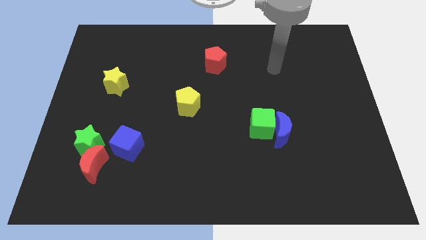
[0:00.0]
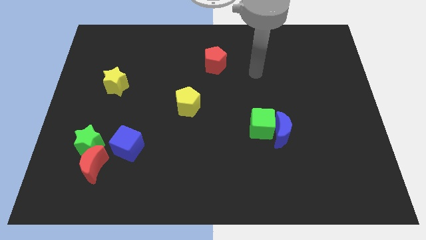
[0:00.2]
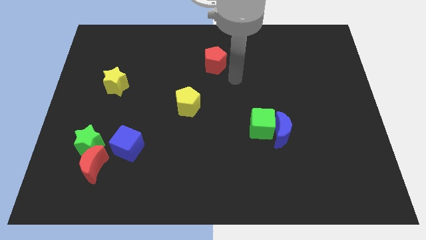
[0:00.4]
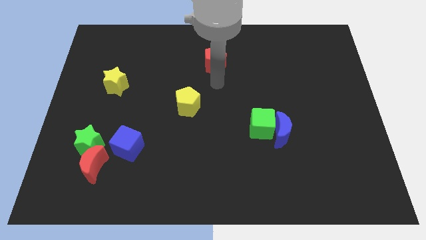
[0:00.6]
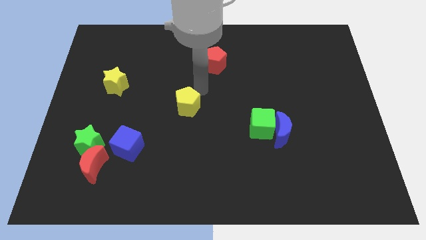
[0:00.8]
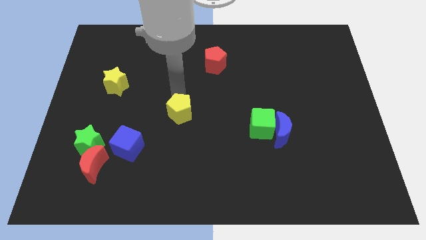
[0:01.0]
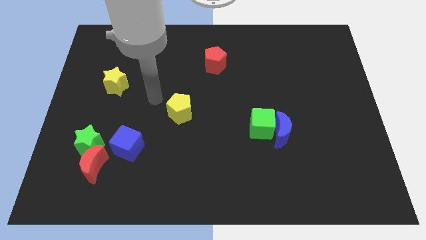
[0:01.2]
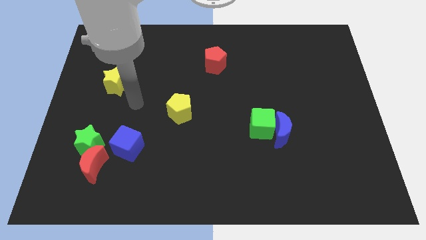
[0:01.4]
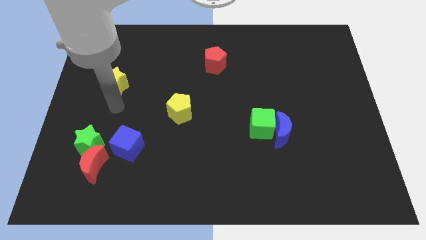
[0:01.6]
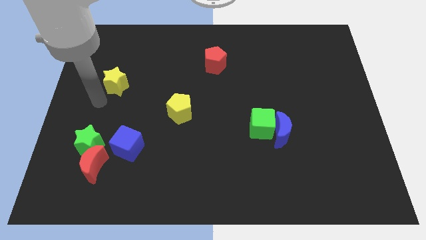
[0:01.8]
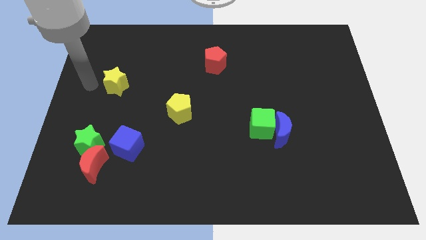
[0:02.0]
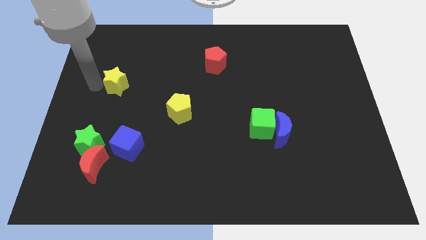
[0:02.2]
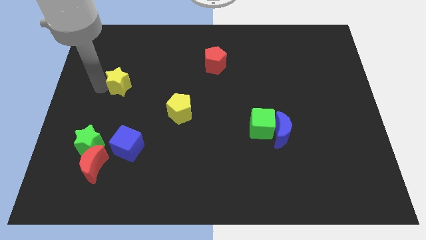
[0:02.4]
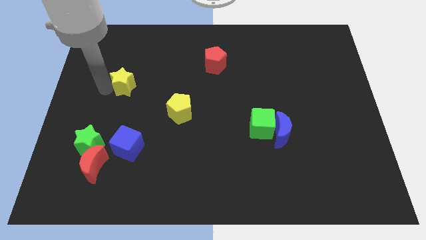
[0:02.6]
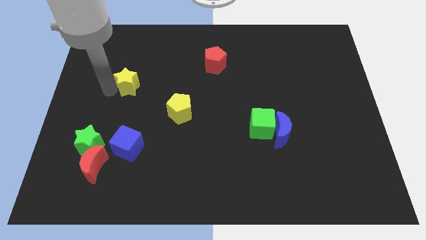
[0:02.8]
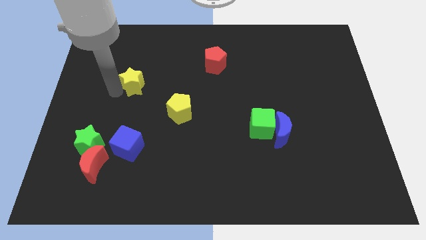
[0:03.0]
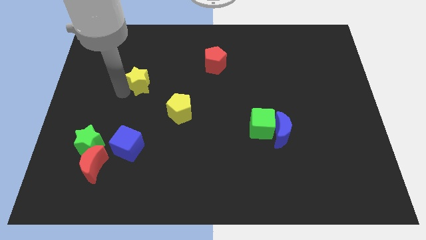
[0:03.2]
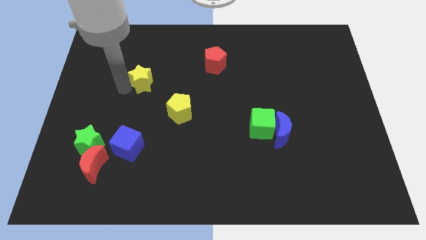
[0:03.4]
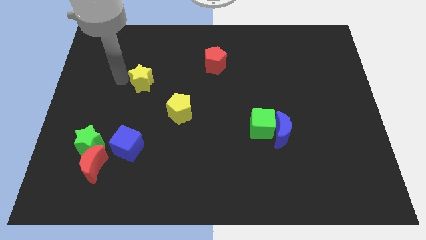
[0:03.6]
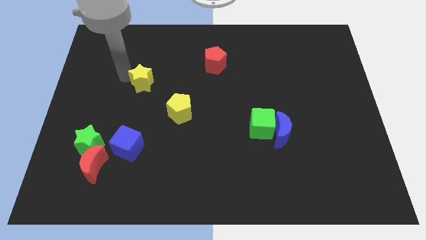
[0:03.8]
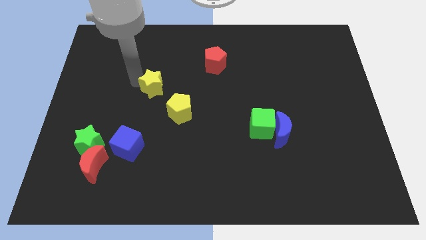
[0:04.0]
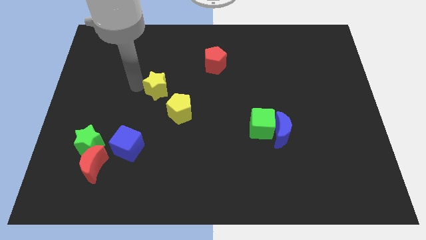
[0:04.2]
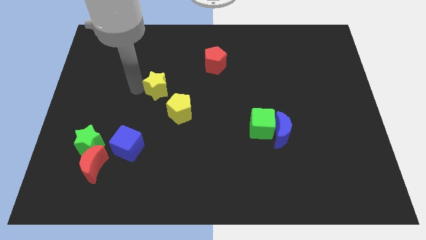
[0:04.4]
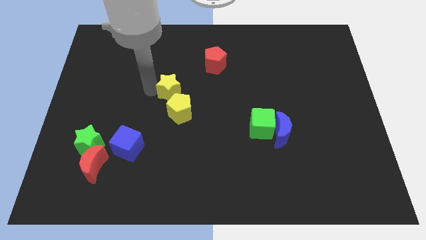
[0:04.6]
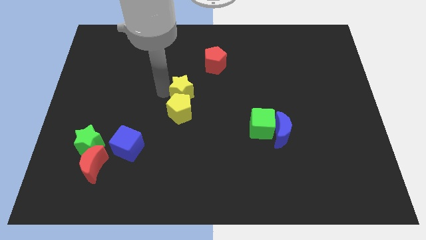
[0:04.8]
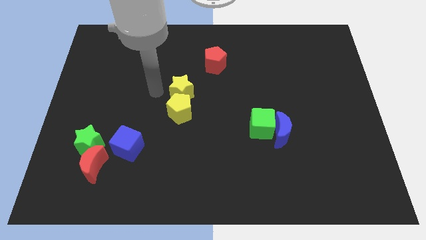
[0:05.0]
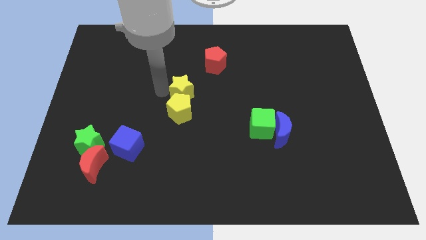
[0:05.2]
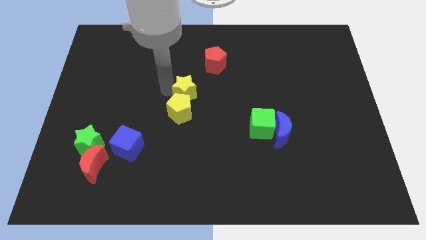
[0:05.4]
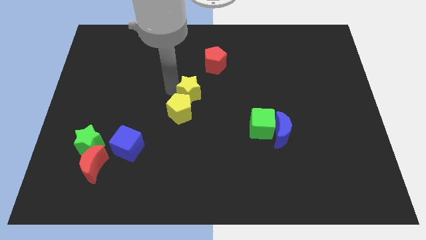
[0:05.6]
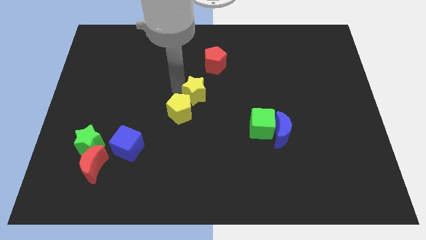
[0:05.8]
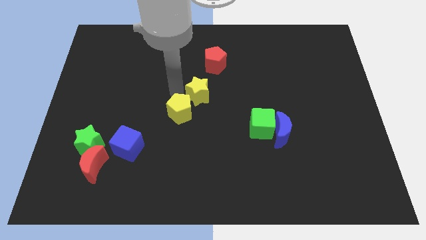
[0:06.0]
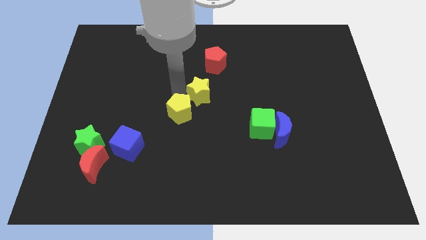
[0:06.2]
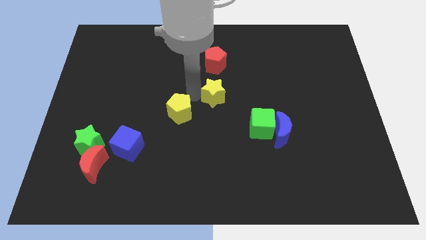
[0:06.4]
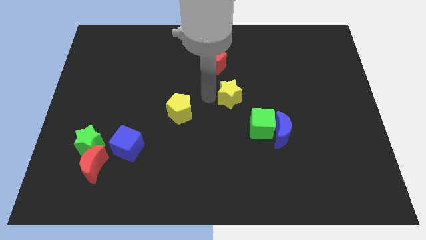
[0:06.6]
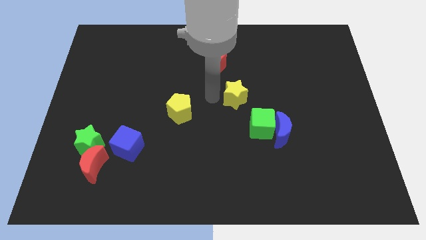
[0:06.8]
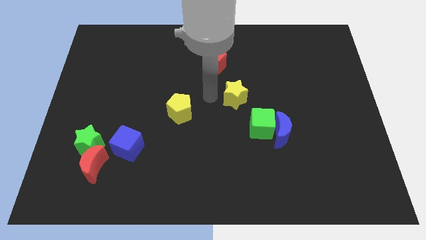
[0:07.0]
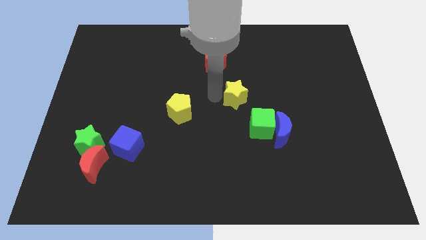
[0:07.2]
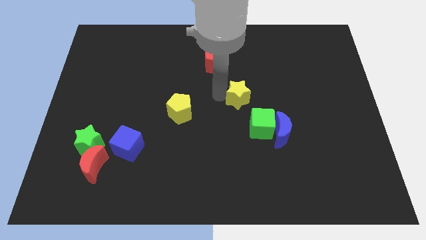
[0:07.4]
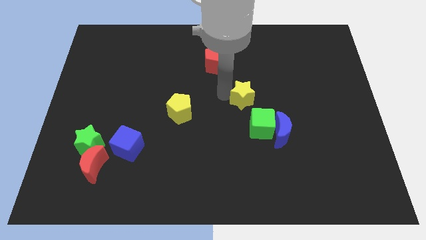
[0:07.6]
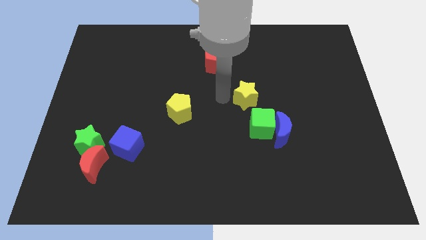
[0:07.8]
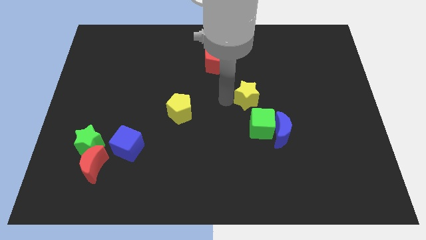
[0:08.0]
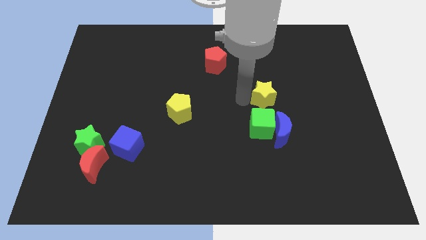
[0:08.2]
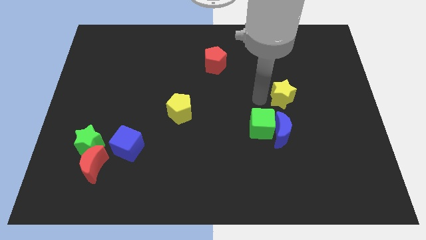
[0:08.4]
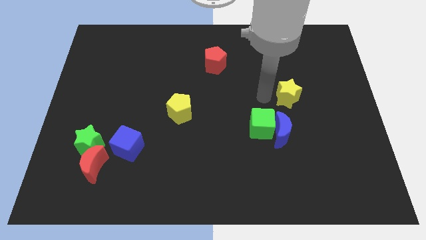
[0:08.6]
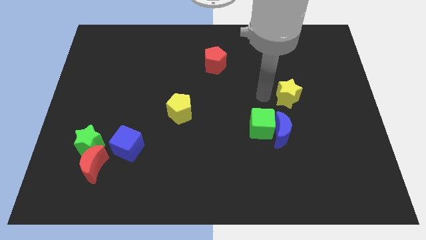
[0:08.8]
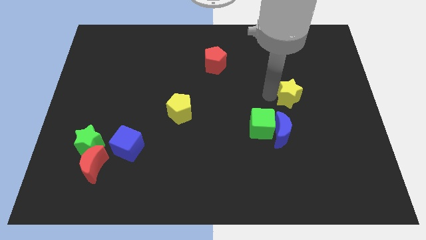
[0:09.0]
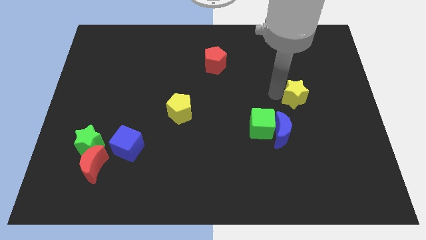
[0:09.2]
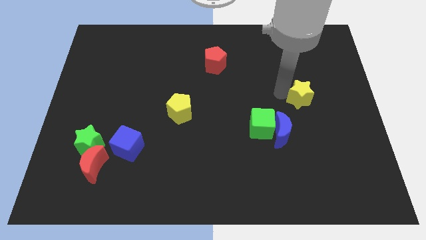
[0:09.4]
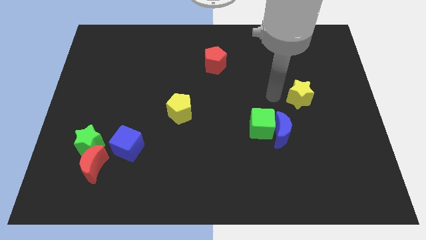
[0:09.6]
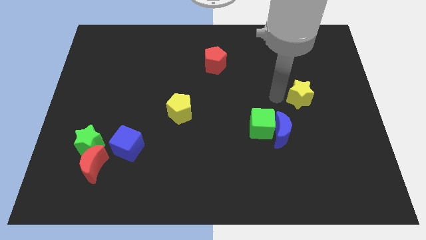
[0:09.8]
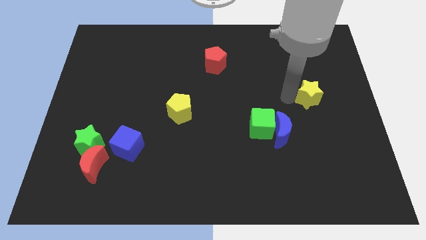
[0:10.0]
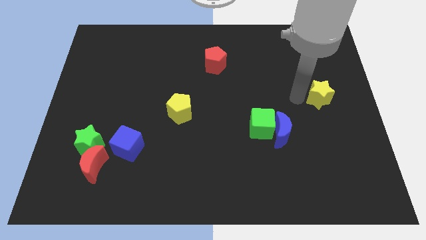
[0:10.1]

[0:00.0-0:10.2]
push the yellow star to the right side

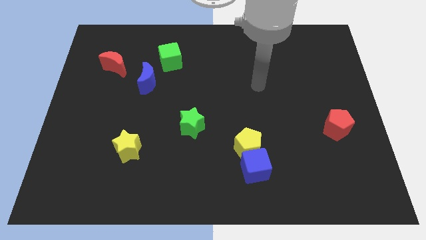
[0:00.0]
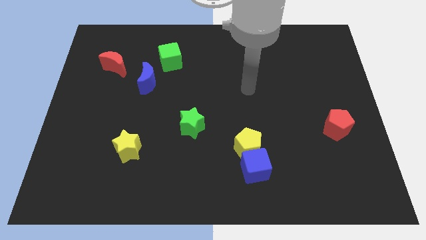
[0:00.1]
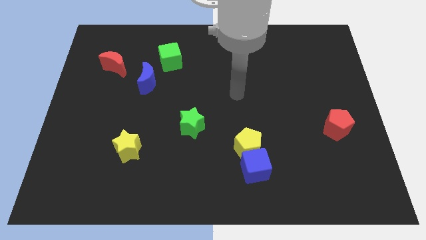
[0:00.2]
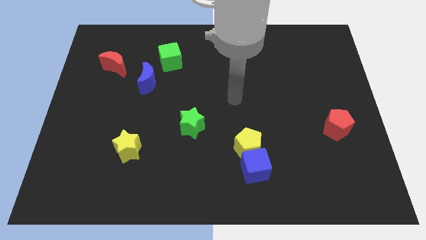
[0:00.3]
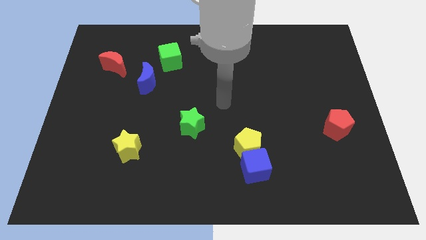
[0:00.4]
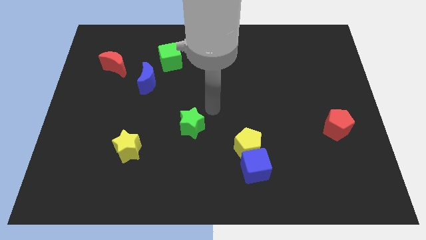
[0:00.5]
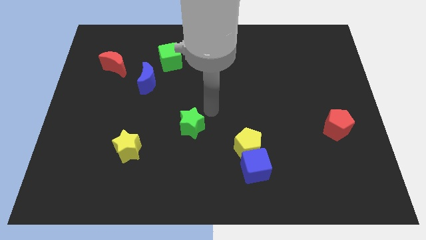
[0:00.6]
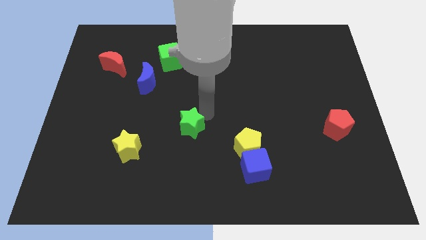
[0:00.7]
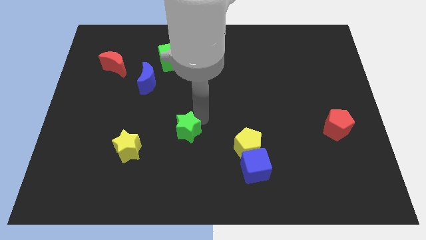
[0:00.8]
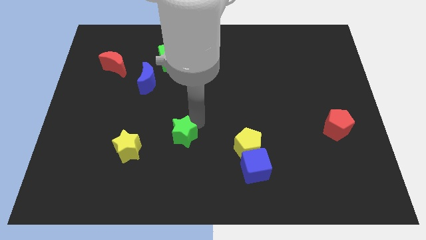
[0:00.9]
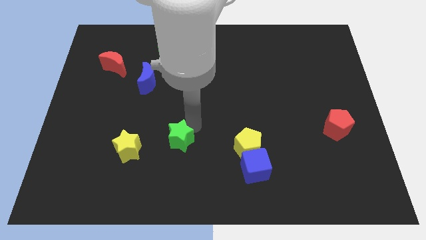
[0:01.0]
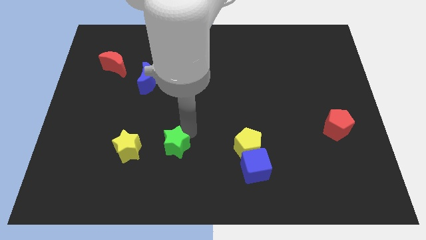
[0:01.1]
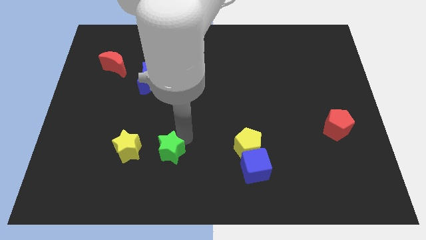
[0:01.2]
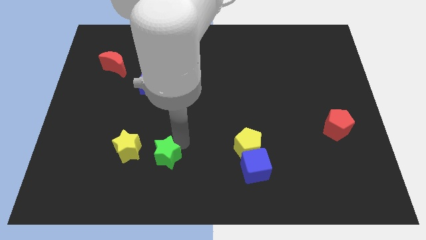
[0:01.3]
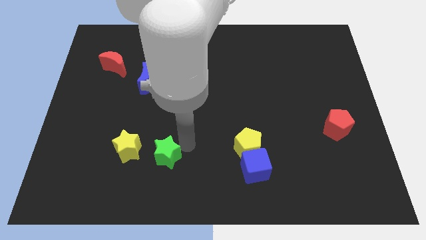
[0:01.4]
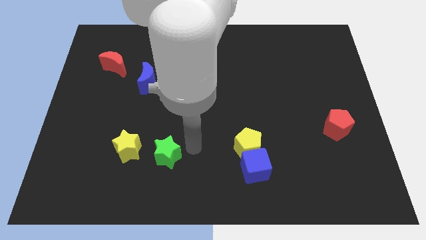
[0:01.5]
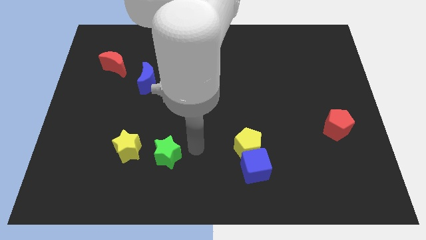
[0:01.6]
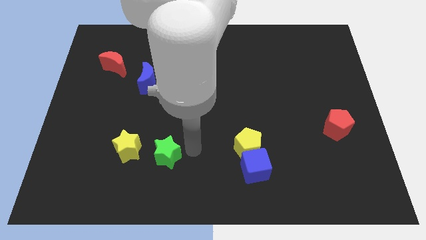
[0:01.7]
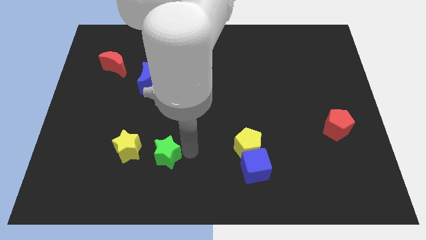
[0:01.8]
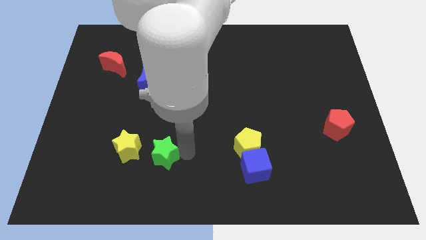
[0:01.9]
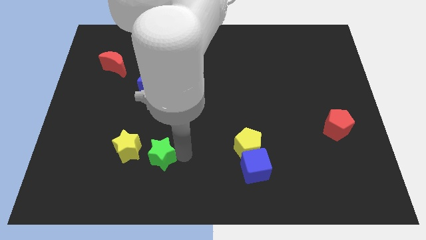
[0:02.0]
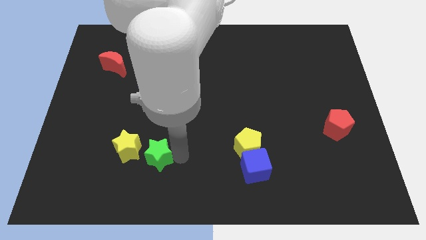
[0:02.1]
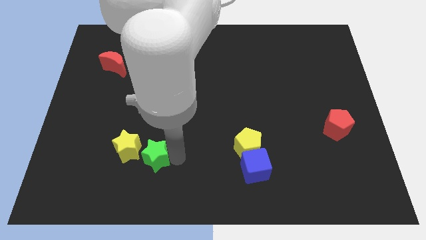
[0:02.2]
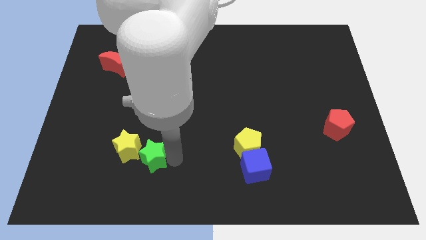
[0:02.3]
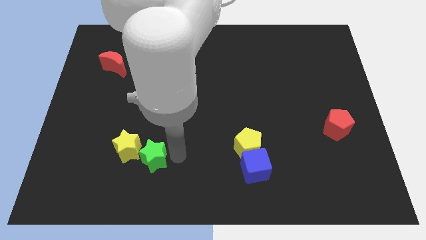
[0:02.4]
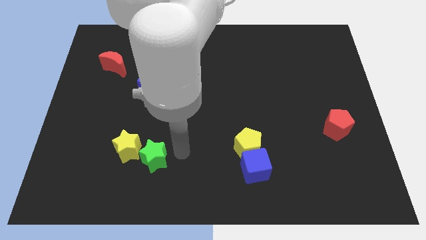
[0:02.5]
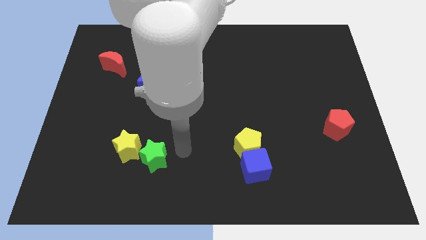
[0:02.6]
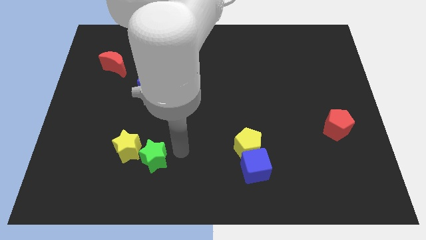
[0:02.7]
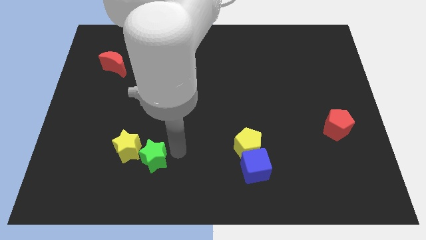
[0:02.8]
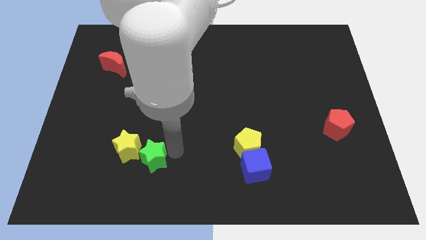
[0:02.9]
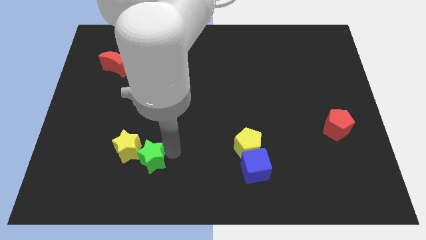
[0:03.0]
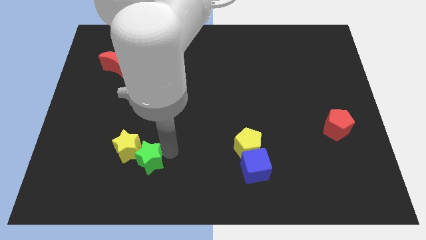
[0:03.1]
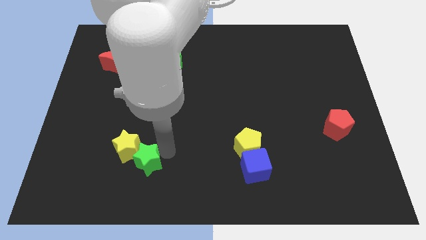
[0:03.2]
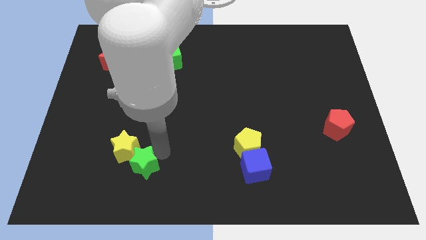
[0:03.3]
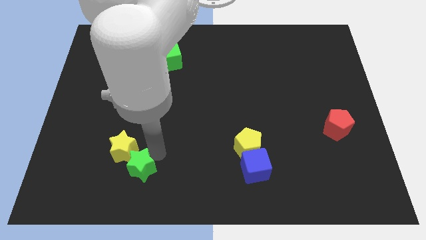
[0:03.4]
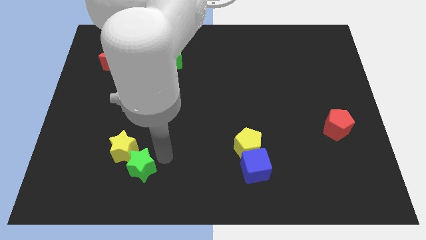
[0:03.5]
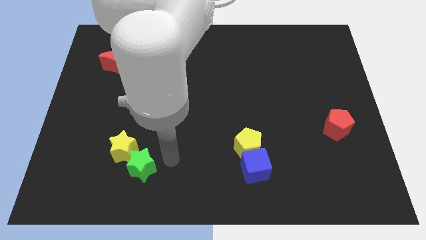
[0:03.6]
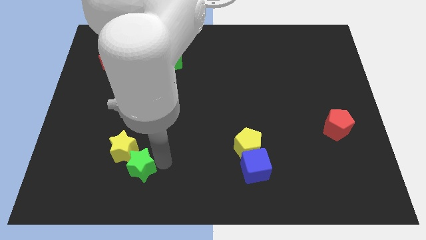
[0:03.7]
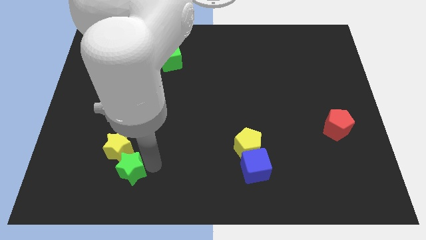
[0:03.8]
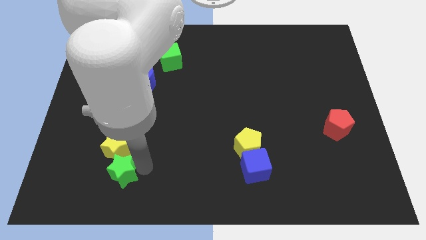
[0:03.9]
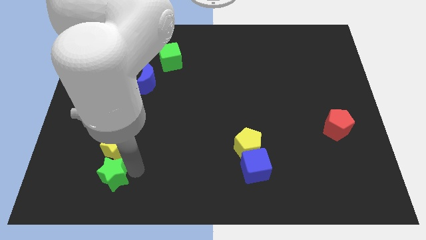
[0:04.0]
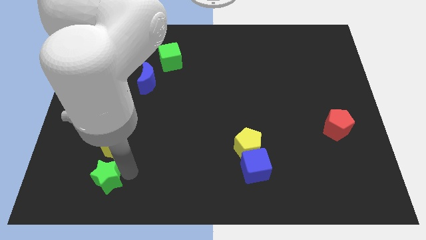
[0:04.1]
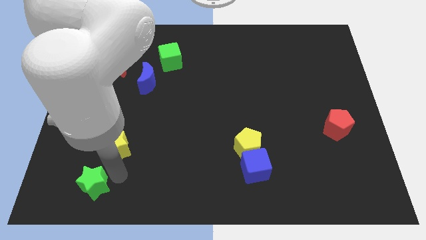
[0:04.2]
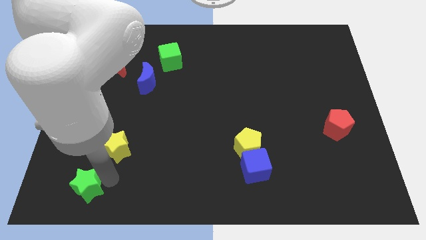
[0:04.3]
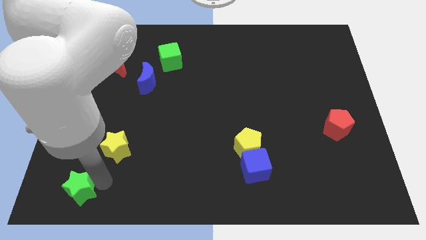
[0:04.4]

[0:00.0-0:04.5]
push the green star to the bottom left
